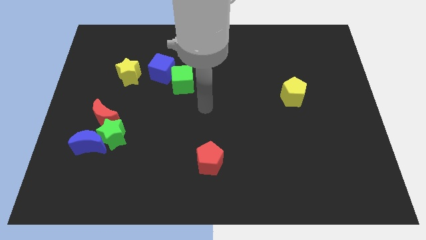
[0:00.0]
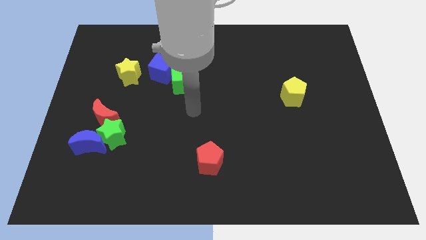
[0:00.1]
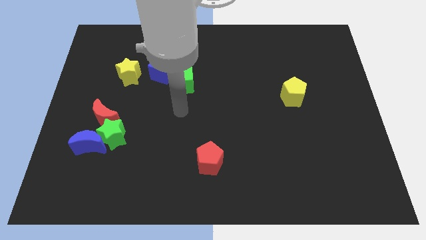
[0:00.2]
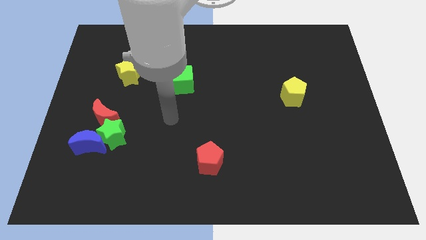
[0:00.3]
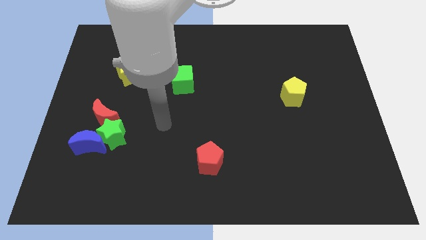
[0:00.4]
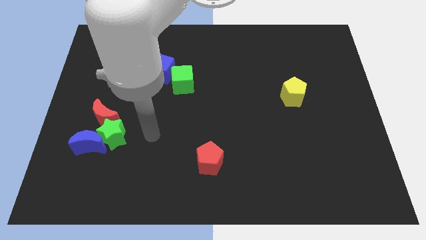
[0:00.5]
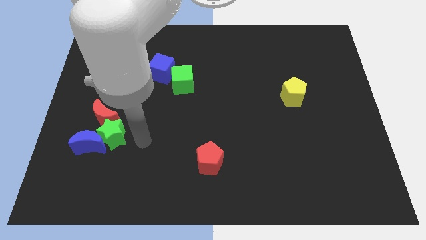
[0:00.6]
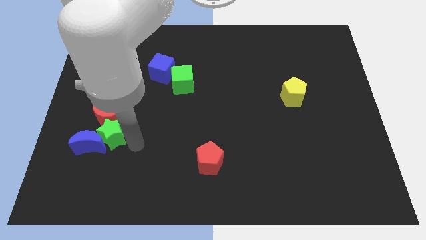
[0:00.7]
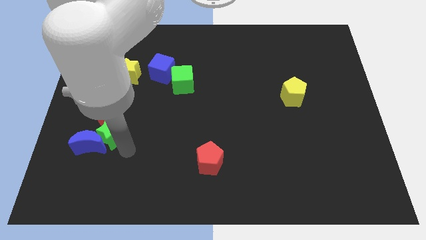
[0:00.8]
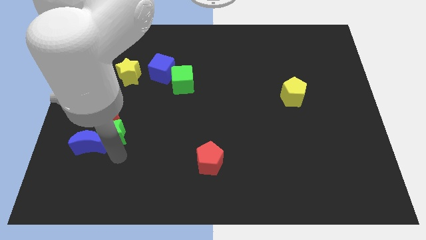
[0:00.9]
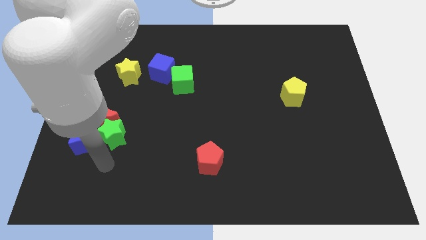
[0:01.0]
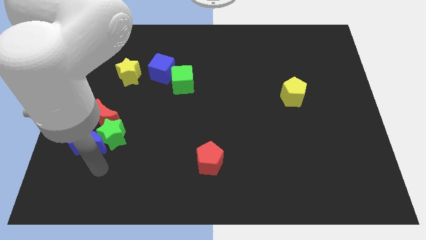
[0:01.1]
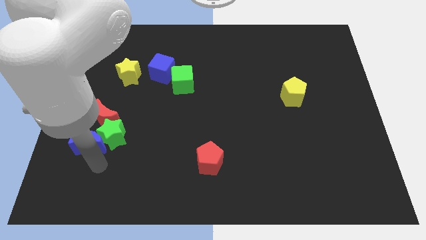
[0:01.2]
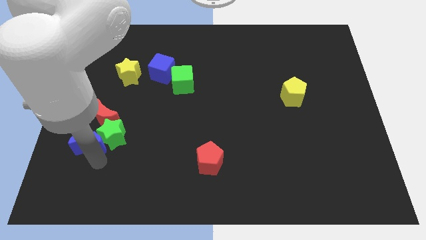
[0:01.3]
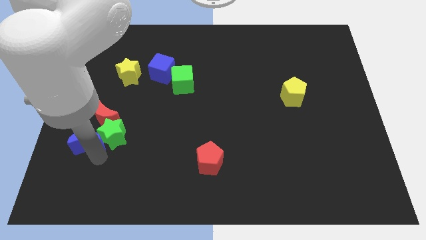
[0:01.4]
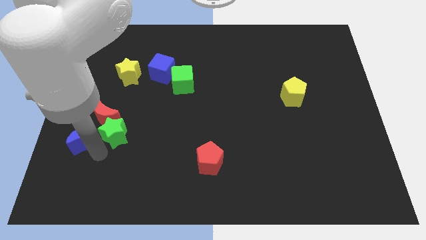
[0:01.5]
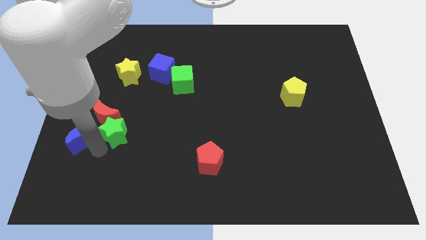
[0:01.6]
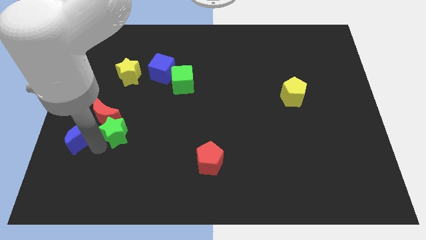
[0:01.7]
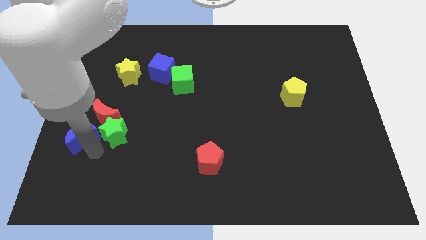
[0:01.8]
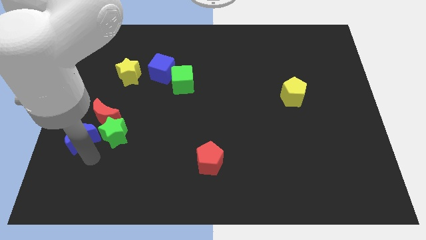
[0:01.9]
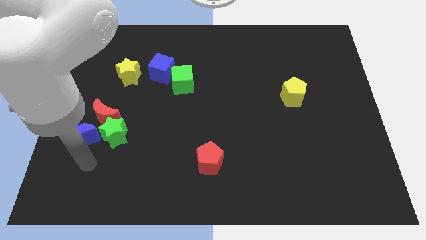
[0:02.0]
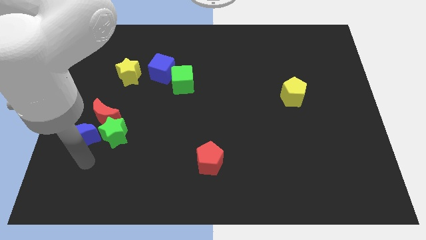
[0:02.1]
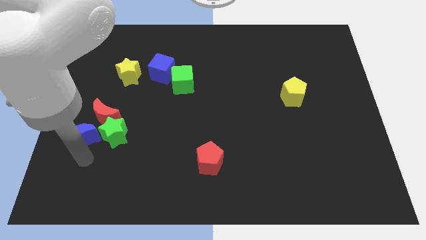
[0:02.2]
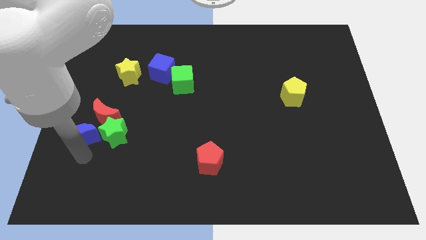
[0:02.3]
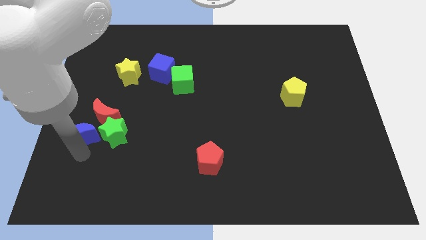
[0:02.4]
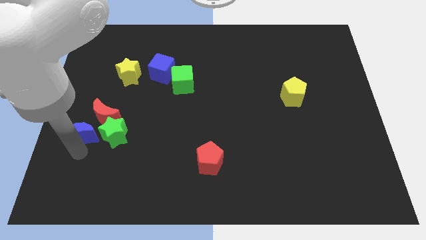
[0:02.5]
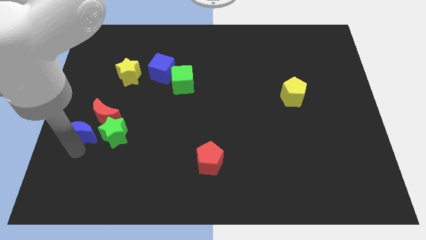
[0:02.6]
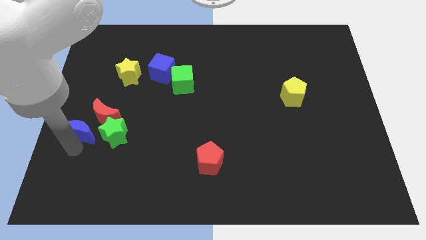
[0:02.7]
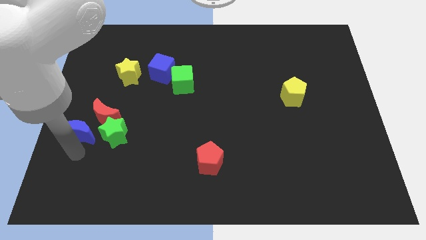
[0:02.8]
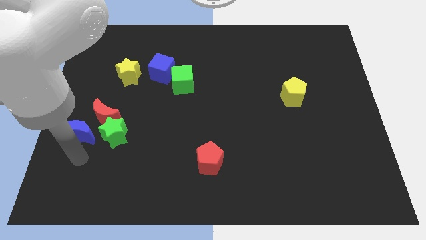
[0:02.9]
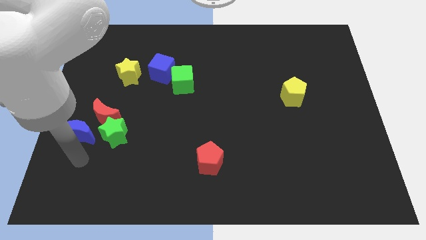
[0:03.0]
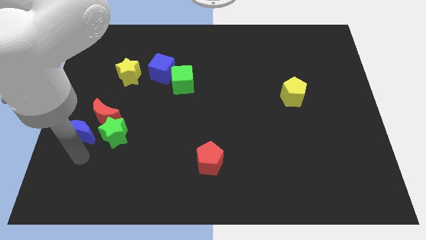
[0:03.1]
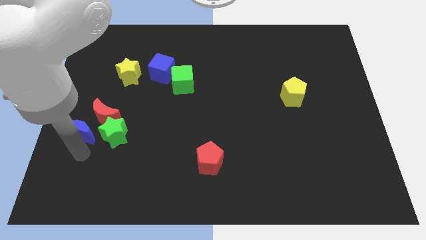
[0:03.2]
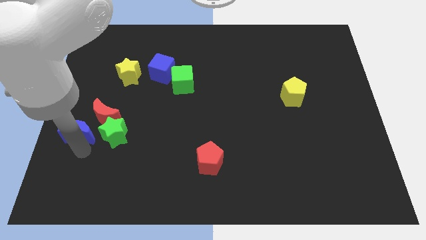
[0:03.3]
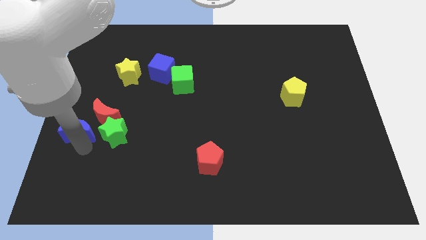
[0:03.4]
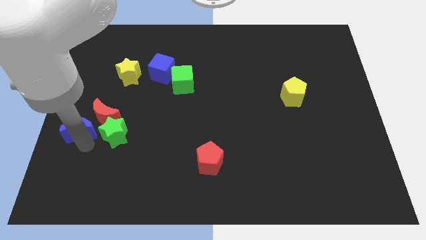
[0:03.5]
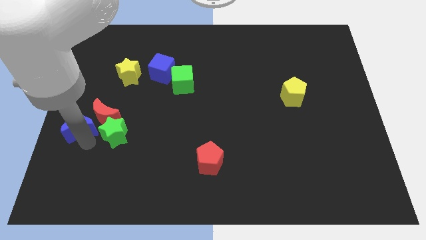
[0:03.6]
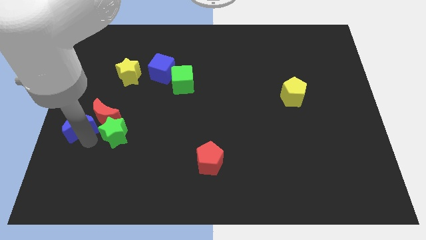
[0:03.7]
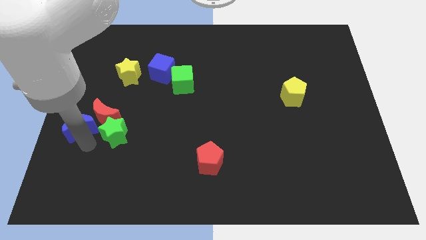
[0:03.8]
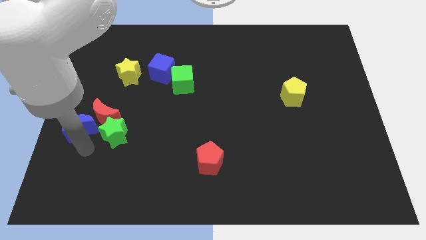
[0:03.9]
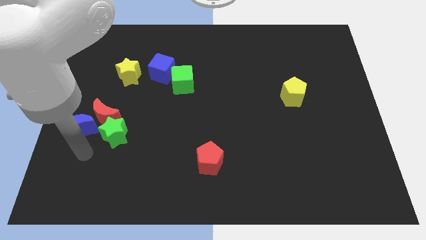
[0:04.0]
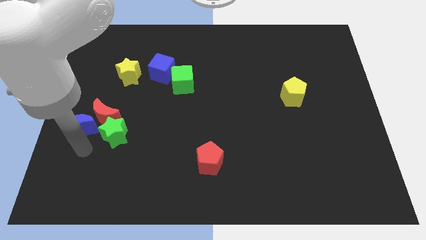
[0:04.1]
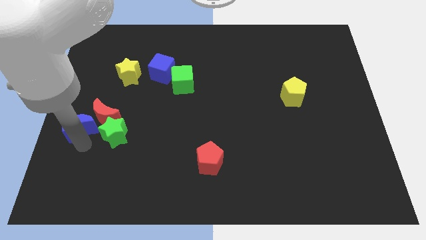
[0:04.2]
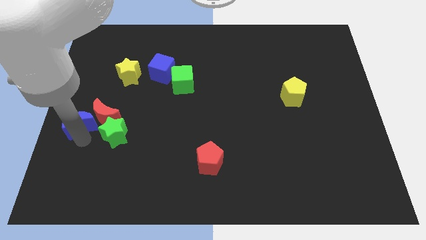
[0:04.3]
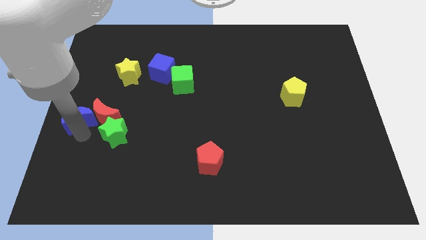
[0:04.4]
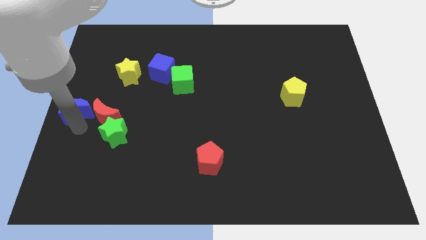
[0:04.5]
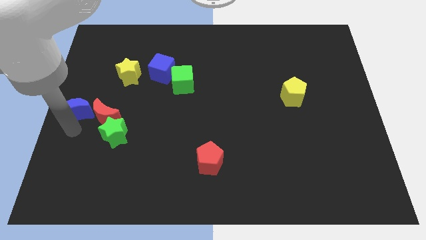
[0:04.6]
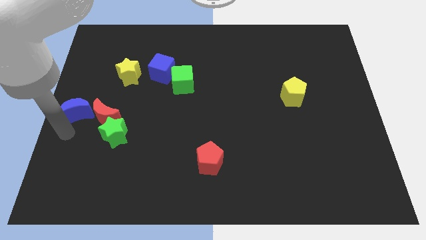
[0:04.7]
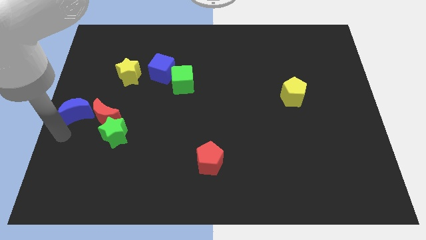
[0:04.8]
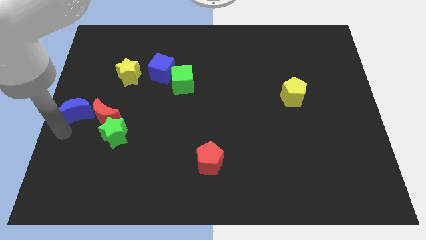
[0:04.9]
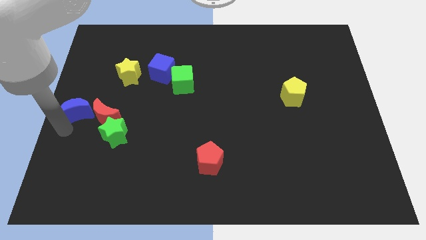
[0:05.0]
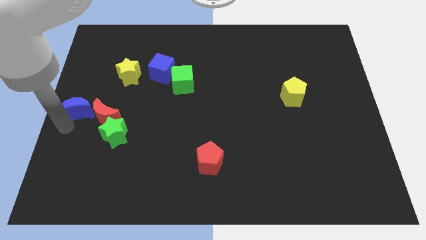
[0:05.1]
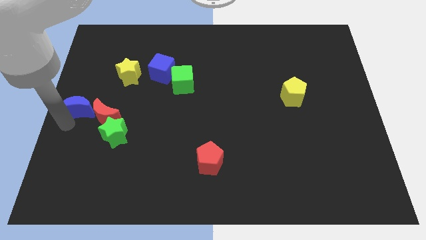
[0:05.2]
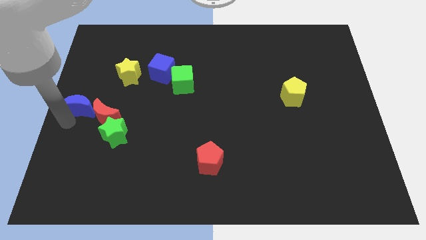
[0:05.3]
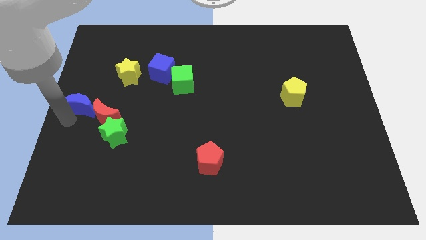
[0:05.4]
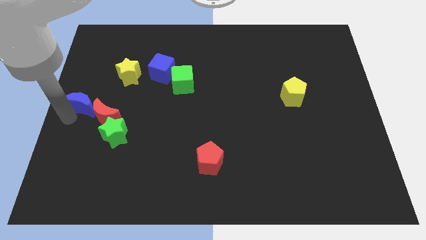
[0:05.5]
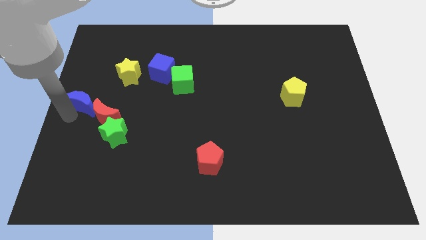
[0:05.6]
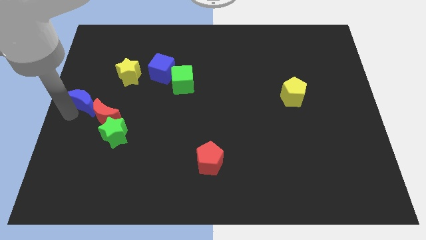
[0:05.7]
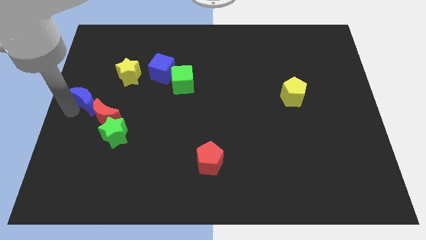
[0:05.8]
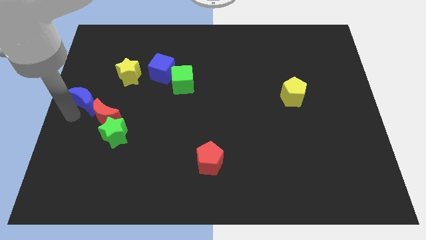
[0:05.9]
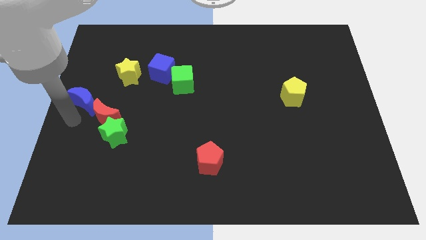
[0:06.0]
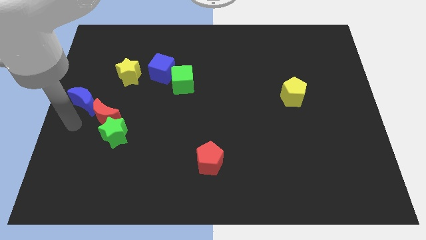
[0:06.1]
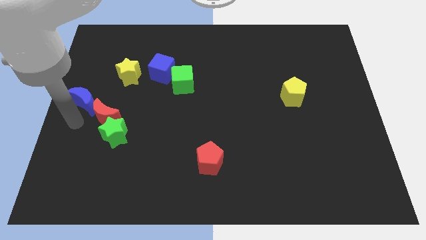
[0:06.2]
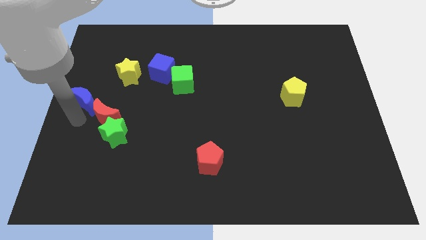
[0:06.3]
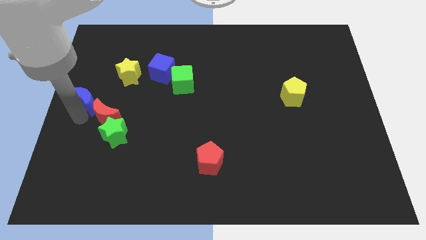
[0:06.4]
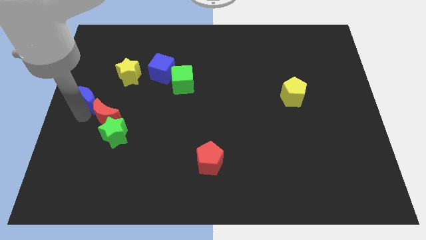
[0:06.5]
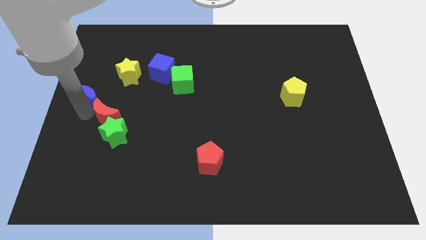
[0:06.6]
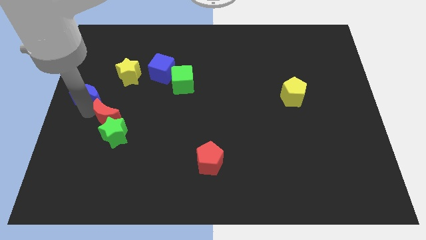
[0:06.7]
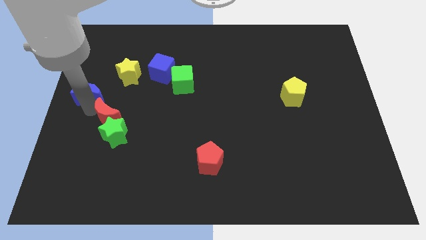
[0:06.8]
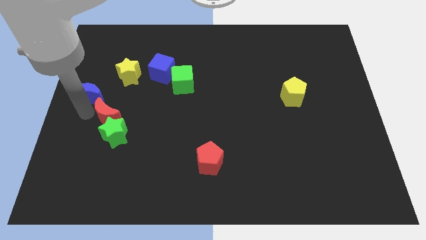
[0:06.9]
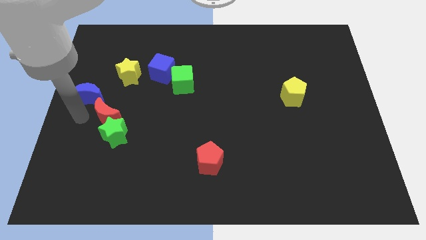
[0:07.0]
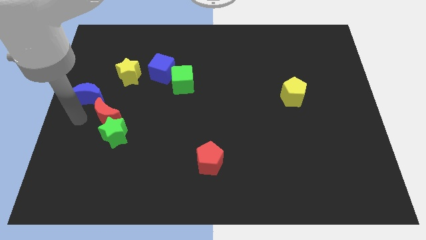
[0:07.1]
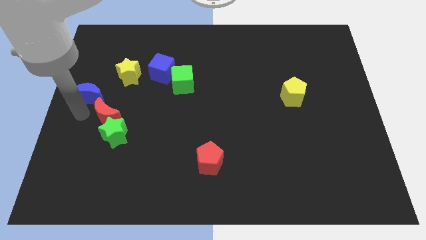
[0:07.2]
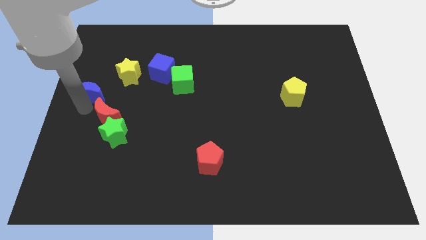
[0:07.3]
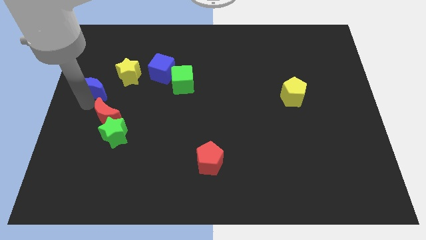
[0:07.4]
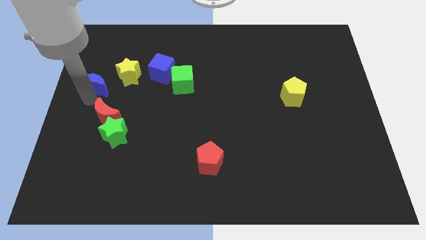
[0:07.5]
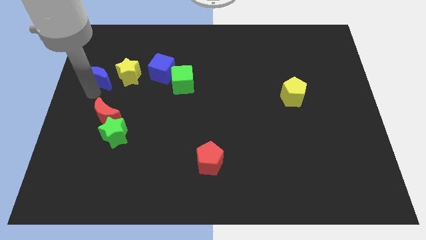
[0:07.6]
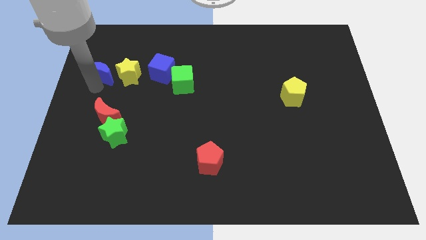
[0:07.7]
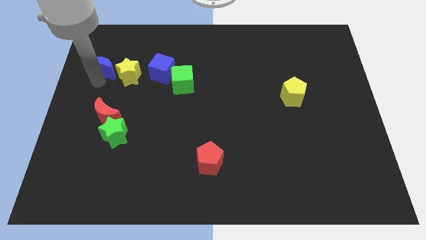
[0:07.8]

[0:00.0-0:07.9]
move the blue moon to the top left side of the yellow star
